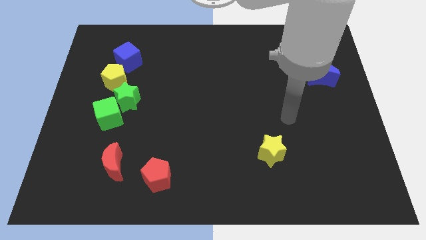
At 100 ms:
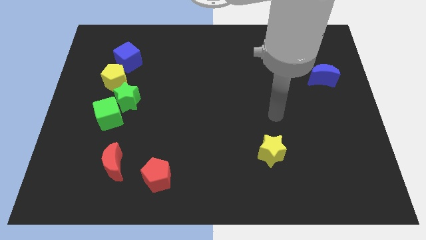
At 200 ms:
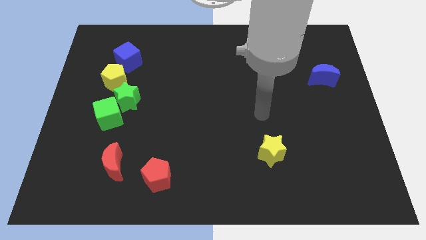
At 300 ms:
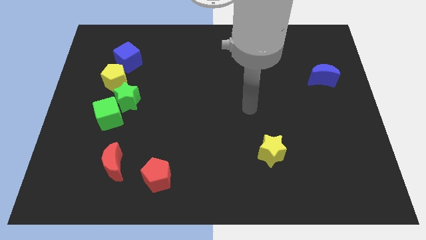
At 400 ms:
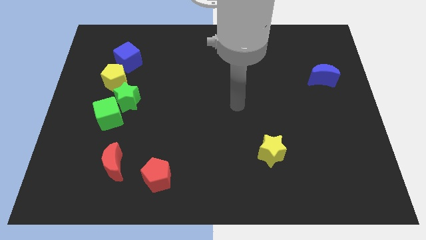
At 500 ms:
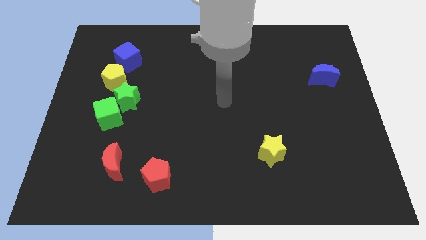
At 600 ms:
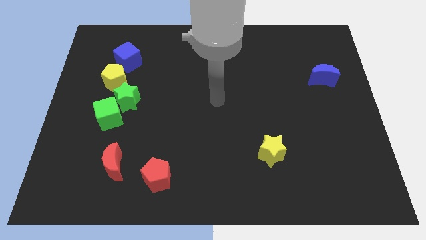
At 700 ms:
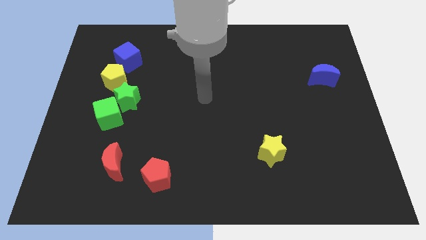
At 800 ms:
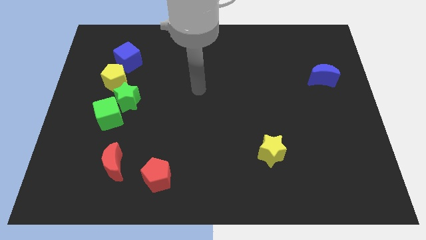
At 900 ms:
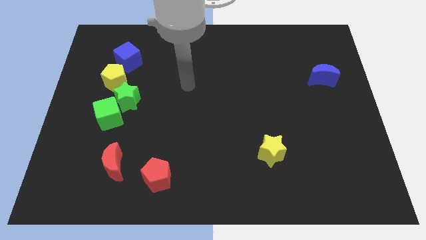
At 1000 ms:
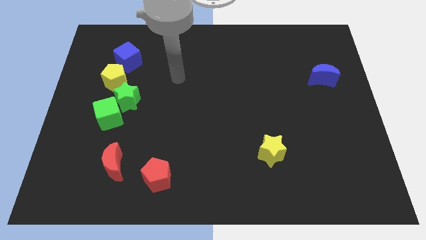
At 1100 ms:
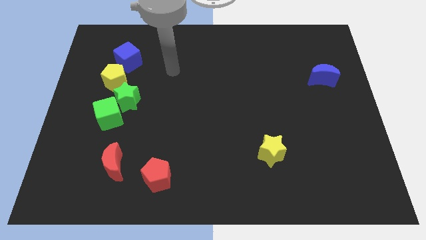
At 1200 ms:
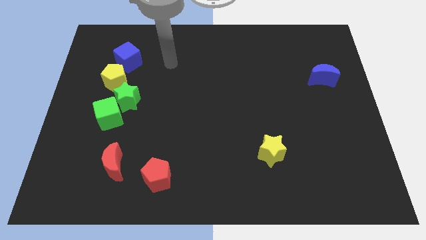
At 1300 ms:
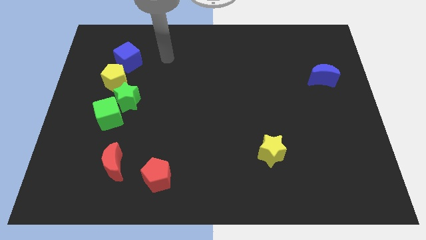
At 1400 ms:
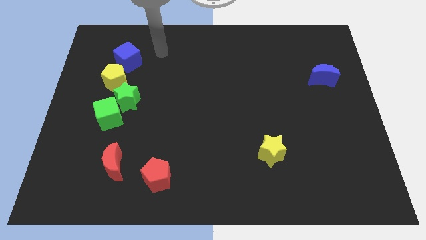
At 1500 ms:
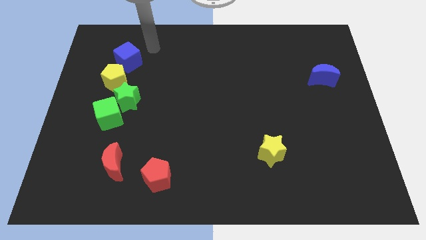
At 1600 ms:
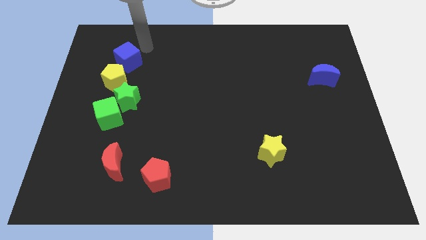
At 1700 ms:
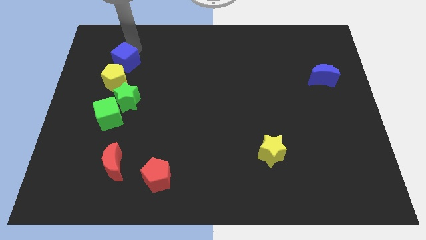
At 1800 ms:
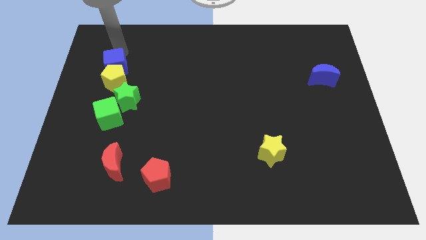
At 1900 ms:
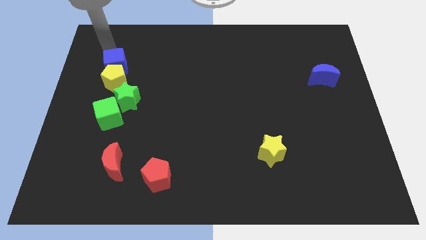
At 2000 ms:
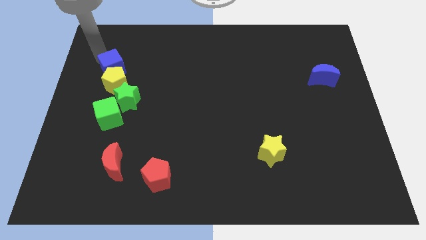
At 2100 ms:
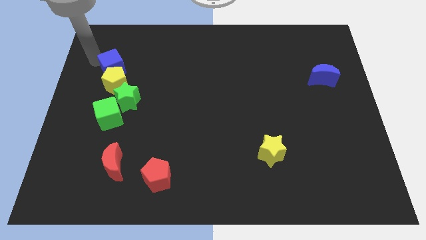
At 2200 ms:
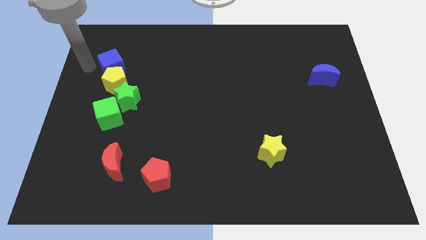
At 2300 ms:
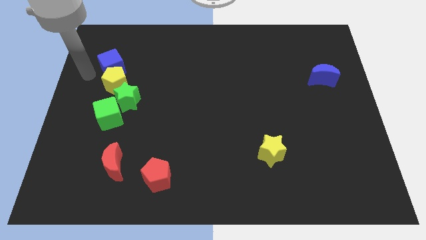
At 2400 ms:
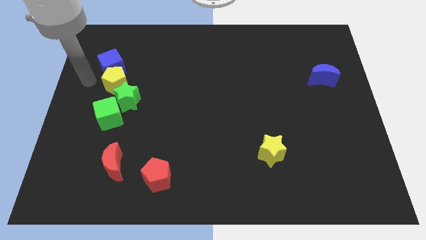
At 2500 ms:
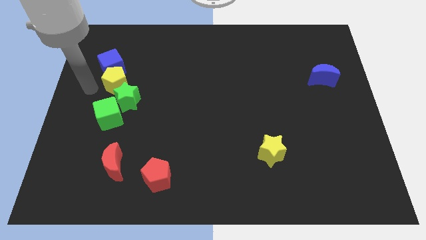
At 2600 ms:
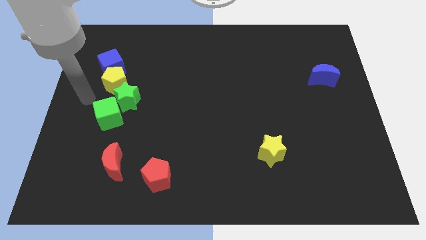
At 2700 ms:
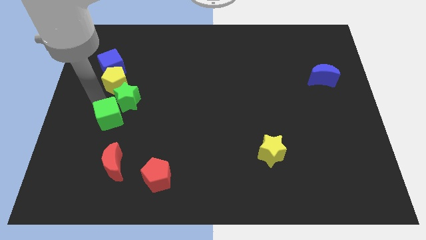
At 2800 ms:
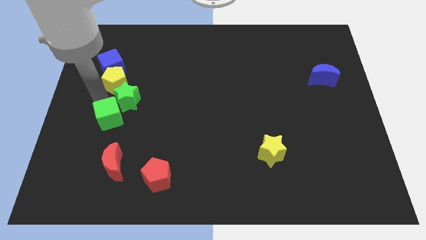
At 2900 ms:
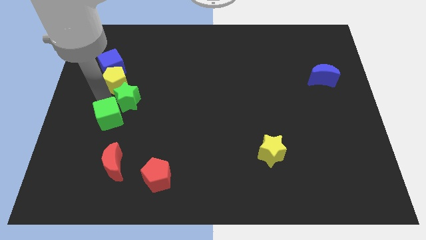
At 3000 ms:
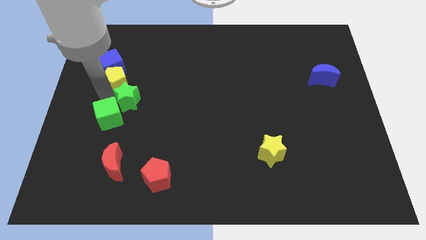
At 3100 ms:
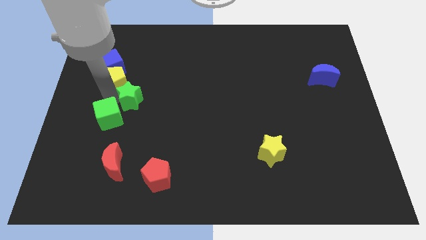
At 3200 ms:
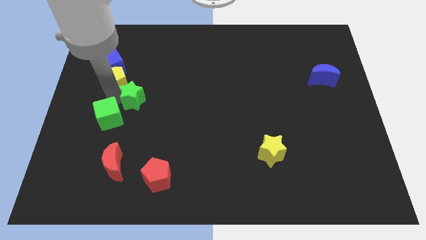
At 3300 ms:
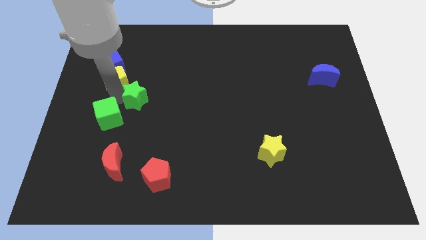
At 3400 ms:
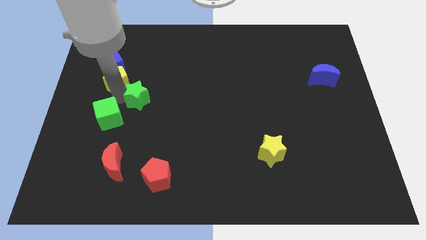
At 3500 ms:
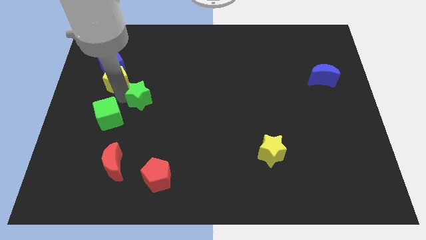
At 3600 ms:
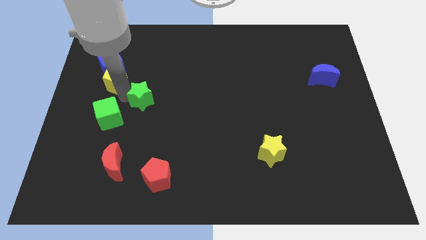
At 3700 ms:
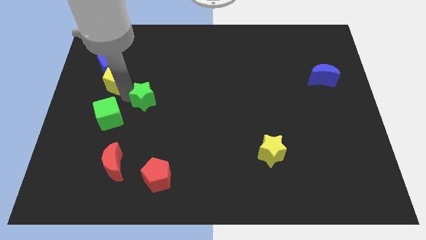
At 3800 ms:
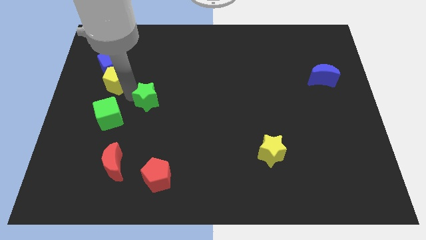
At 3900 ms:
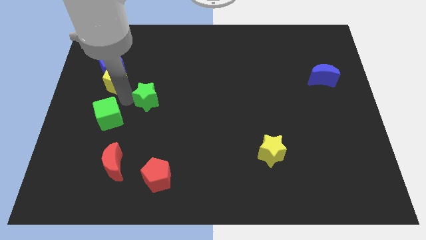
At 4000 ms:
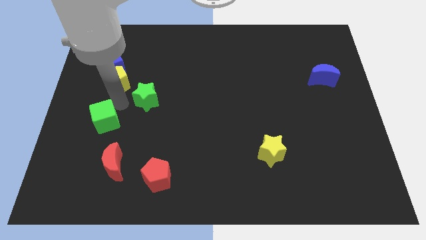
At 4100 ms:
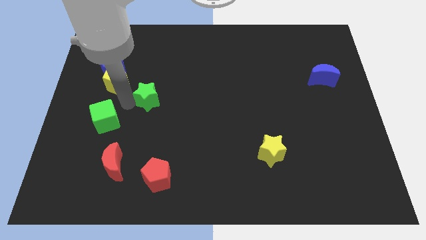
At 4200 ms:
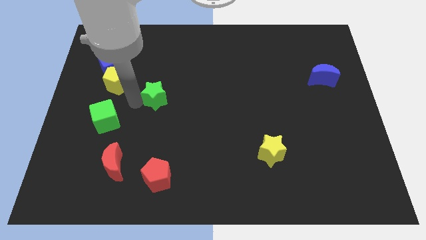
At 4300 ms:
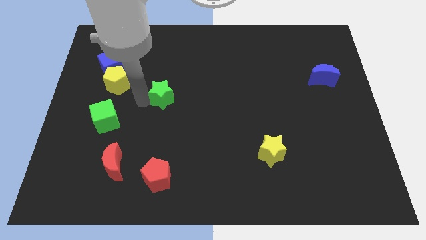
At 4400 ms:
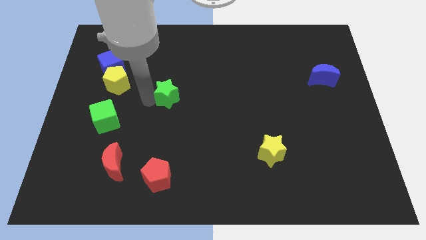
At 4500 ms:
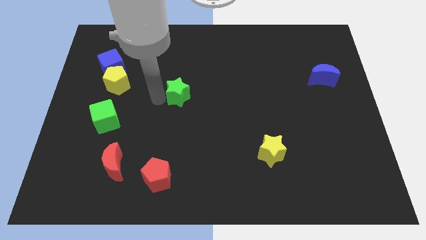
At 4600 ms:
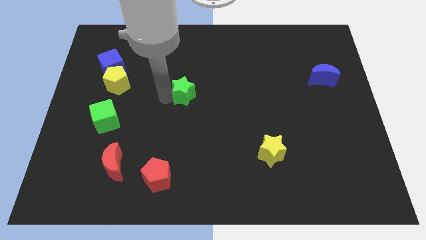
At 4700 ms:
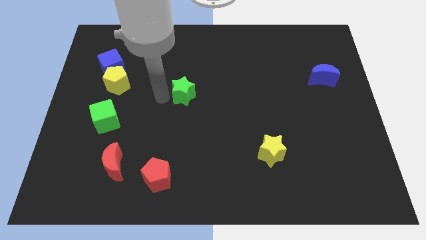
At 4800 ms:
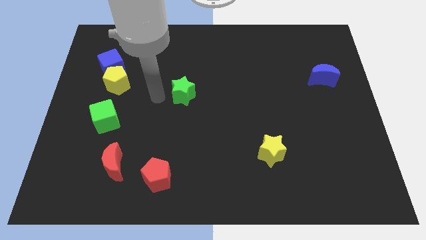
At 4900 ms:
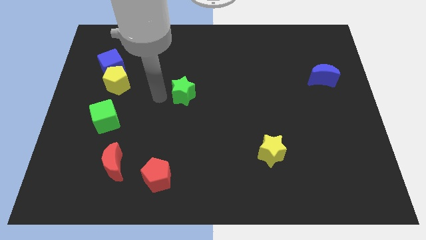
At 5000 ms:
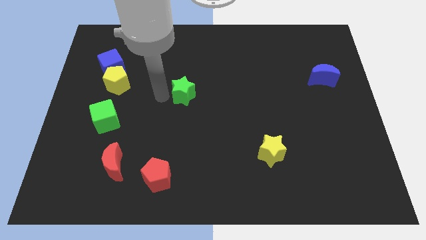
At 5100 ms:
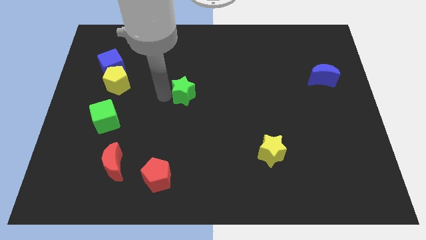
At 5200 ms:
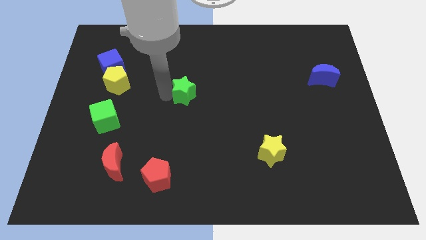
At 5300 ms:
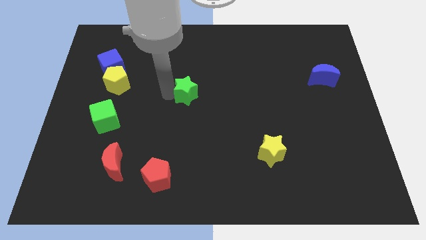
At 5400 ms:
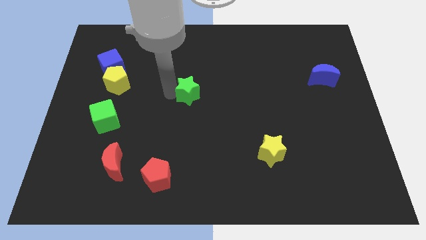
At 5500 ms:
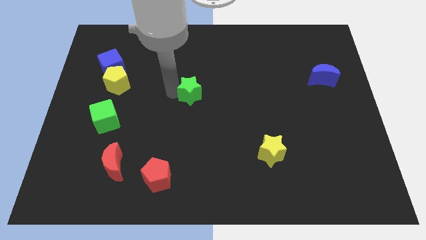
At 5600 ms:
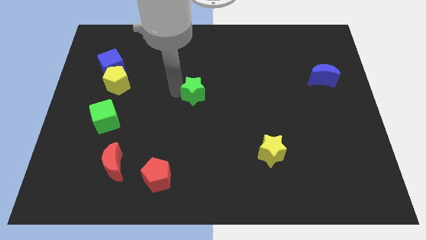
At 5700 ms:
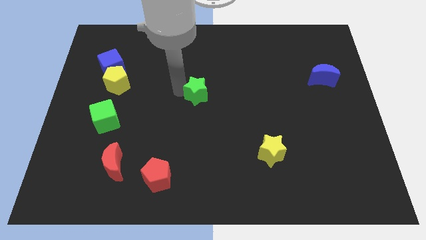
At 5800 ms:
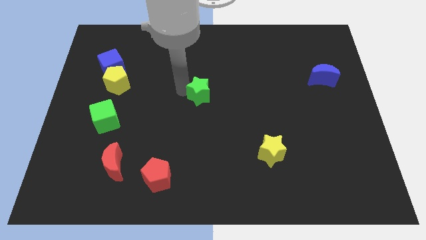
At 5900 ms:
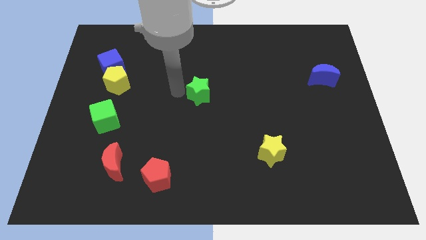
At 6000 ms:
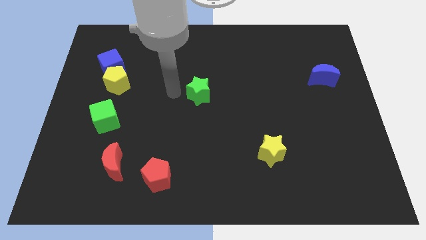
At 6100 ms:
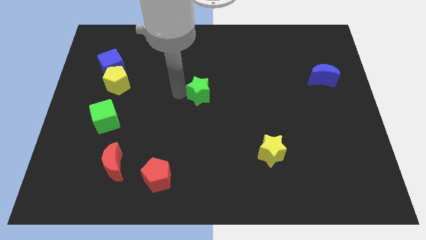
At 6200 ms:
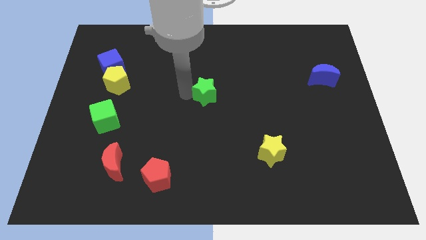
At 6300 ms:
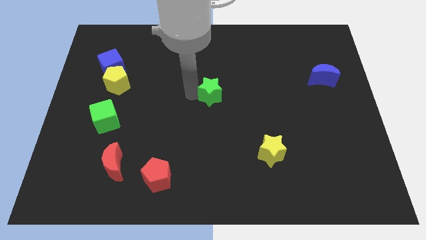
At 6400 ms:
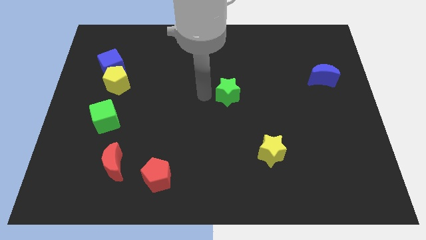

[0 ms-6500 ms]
push the green star to the right

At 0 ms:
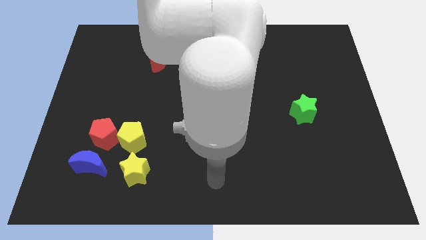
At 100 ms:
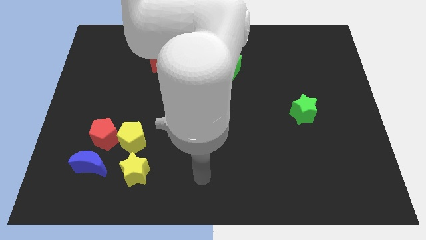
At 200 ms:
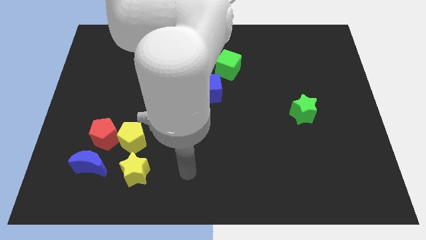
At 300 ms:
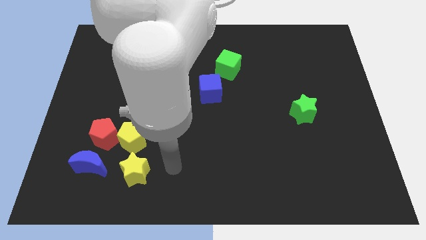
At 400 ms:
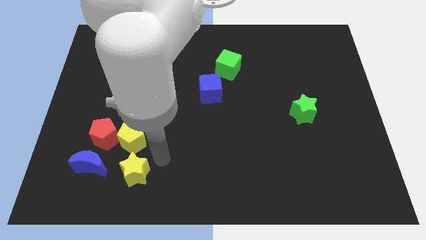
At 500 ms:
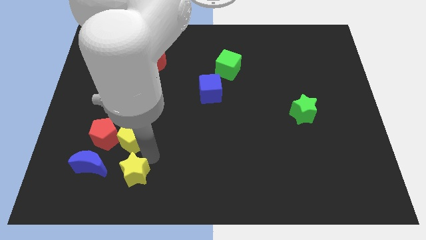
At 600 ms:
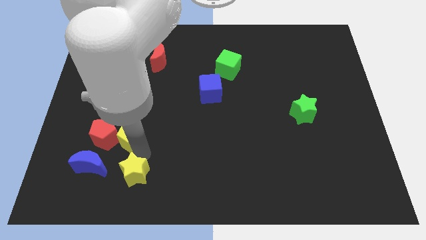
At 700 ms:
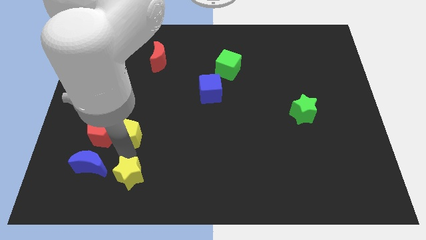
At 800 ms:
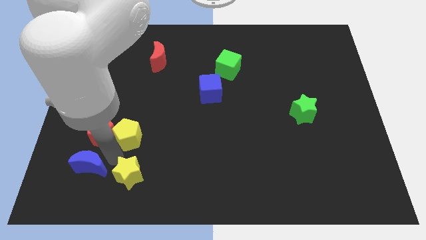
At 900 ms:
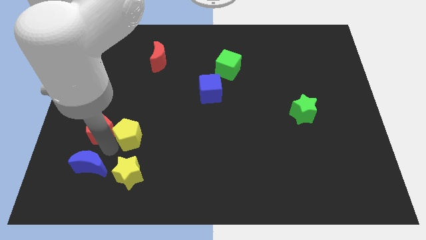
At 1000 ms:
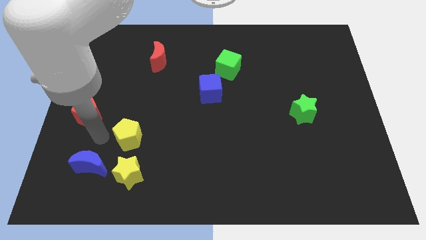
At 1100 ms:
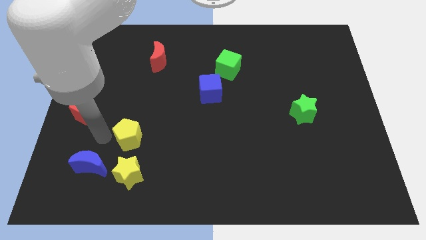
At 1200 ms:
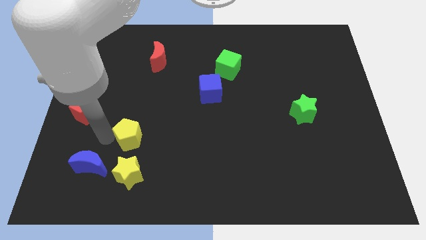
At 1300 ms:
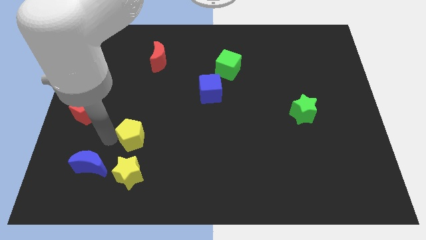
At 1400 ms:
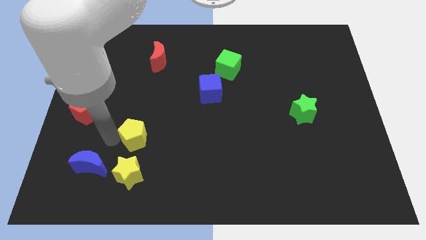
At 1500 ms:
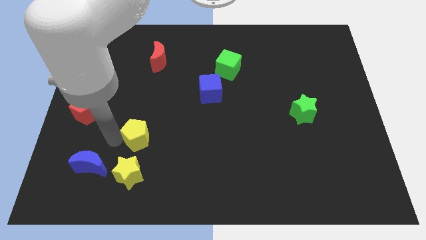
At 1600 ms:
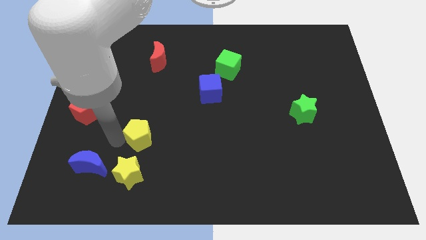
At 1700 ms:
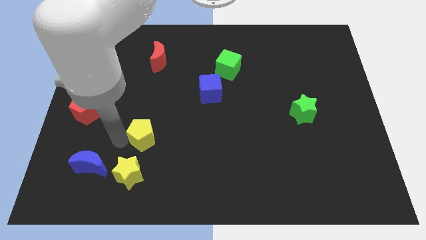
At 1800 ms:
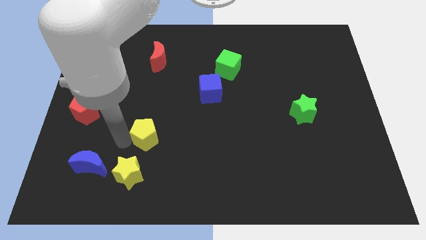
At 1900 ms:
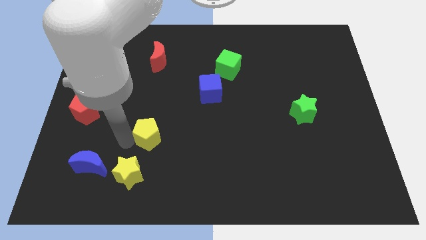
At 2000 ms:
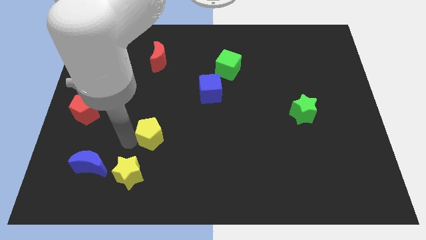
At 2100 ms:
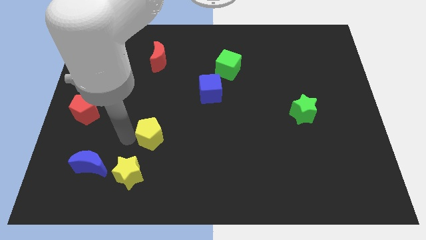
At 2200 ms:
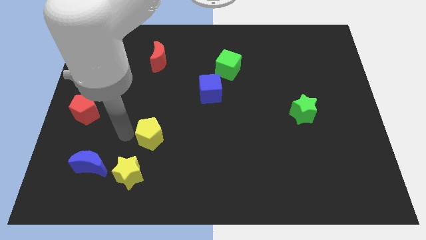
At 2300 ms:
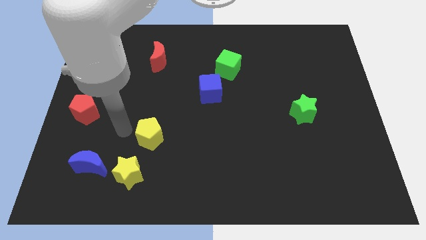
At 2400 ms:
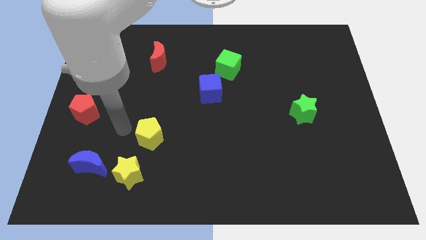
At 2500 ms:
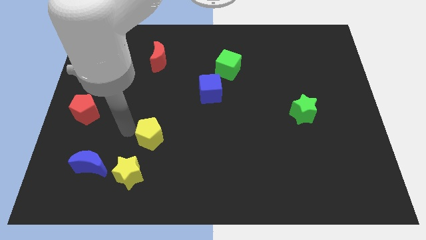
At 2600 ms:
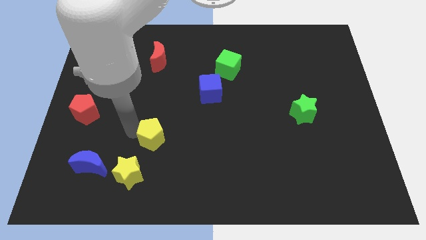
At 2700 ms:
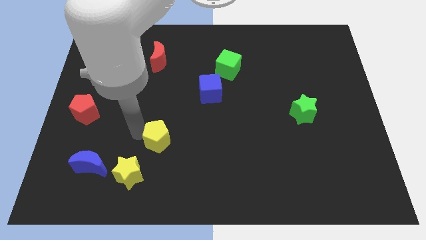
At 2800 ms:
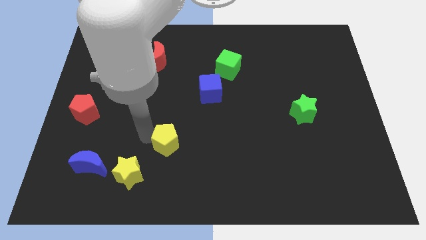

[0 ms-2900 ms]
move the yellow pentagon to the right somewhat
